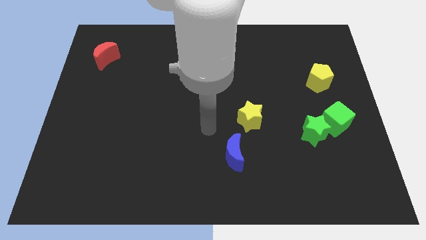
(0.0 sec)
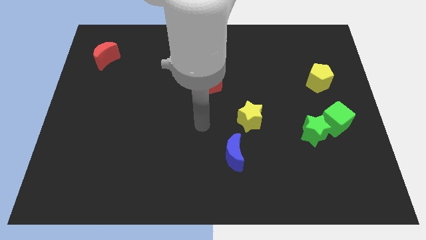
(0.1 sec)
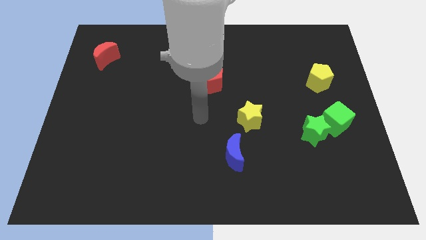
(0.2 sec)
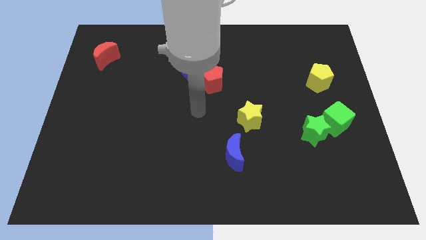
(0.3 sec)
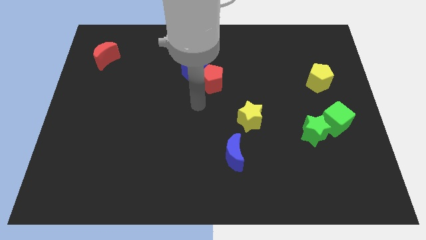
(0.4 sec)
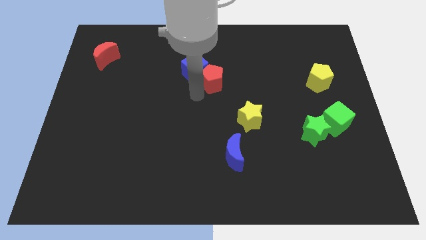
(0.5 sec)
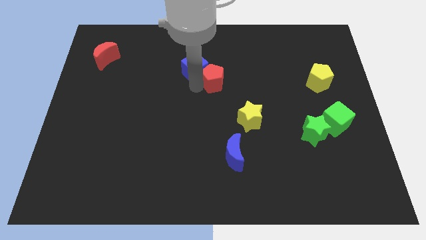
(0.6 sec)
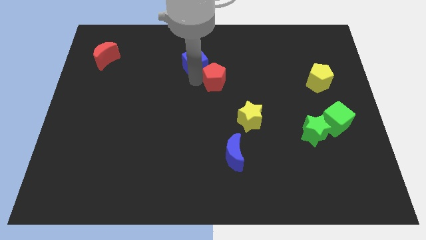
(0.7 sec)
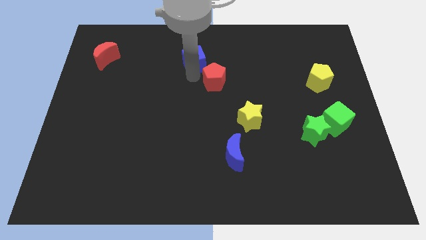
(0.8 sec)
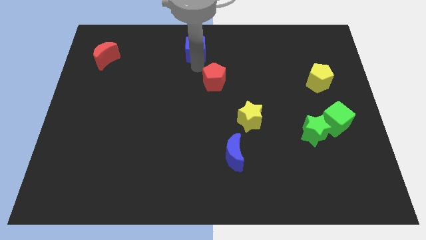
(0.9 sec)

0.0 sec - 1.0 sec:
pull the red pentagon apart from the blue cube

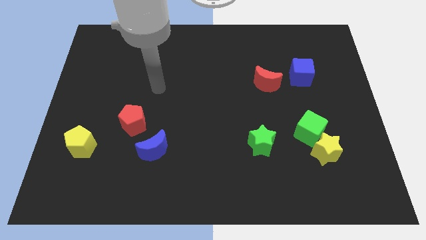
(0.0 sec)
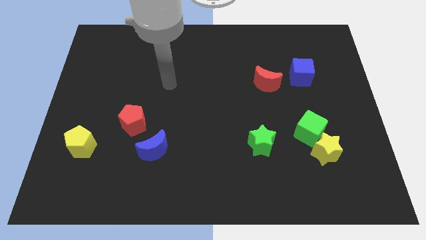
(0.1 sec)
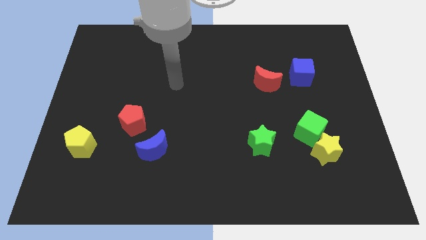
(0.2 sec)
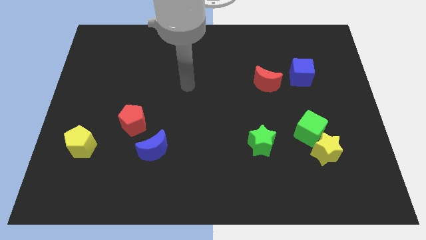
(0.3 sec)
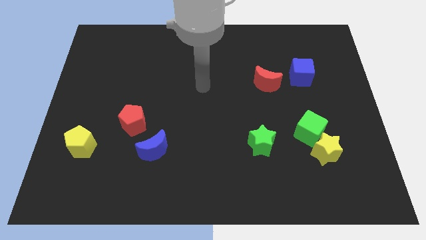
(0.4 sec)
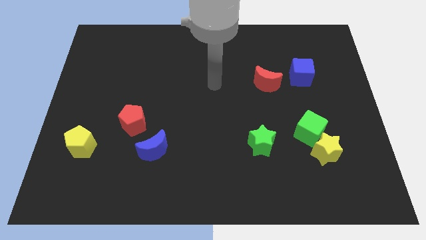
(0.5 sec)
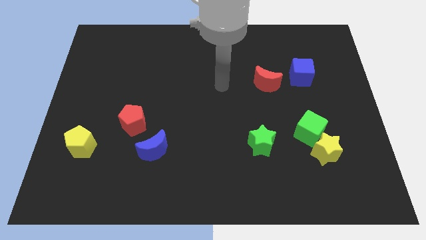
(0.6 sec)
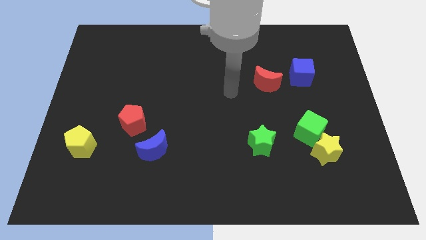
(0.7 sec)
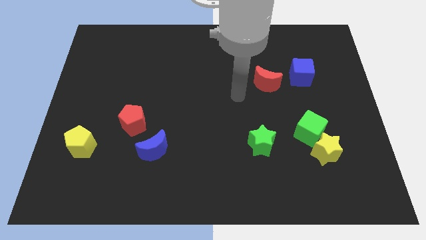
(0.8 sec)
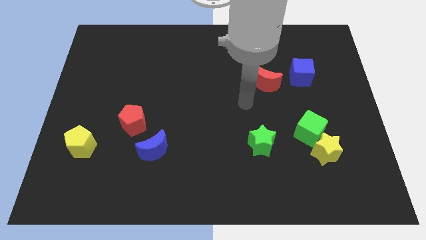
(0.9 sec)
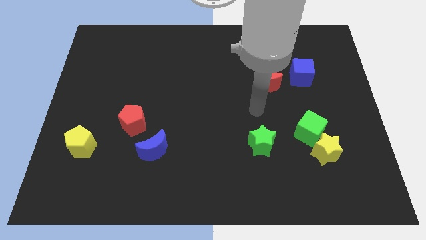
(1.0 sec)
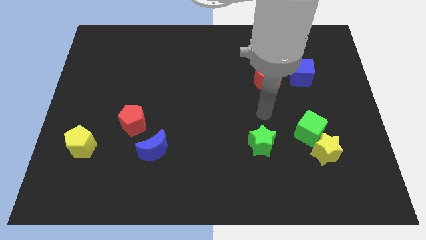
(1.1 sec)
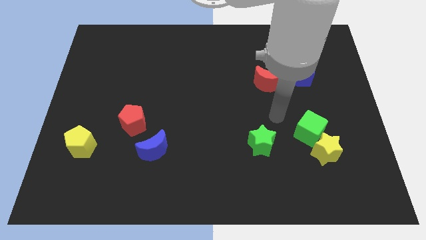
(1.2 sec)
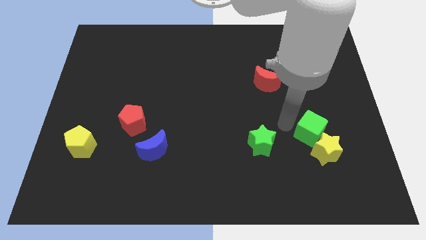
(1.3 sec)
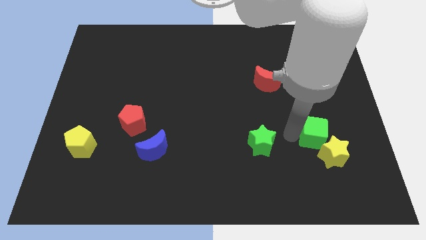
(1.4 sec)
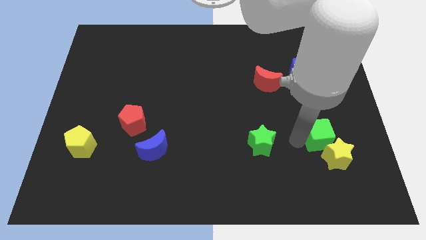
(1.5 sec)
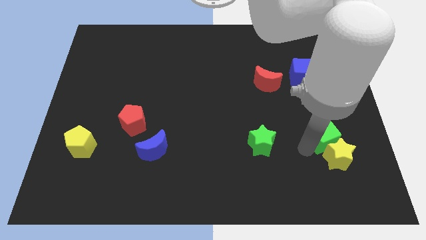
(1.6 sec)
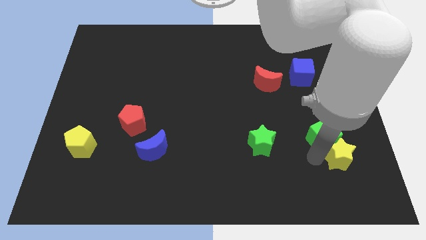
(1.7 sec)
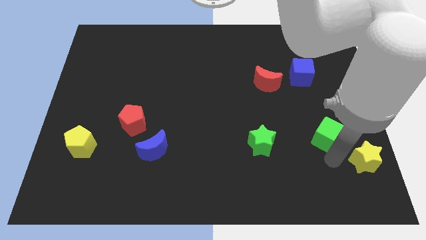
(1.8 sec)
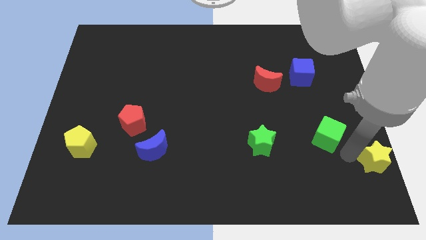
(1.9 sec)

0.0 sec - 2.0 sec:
move the green cube away from the yellow star

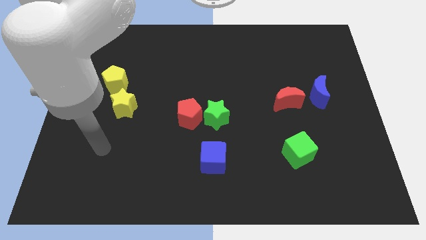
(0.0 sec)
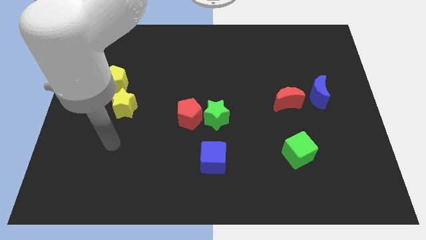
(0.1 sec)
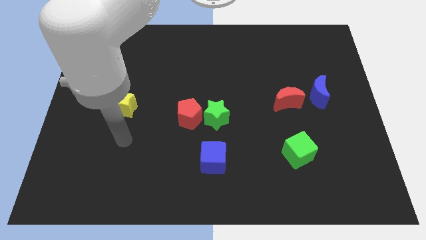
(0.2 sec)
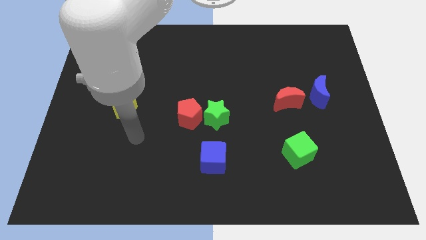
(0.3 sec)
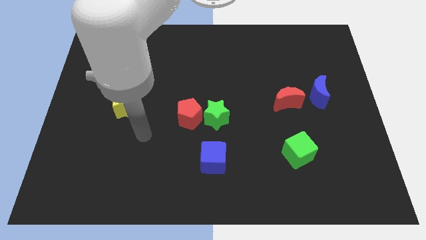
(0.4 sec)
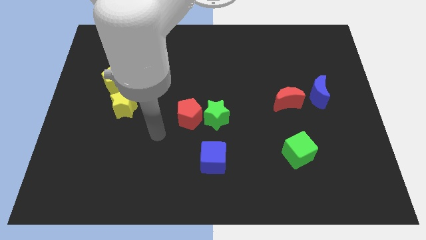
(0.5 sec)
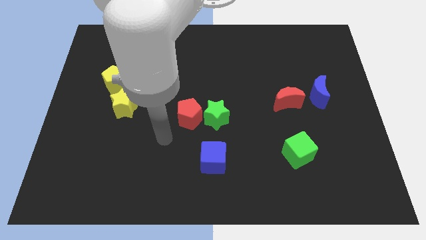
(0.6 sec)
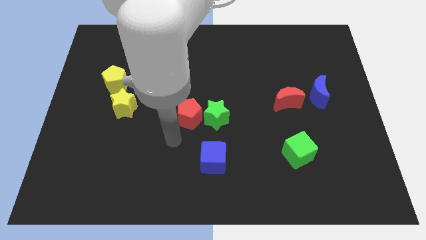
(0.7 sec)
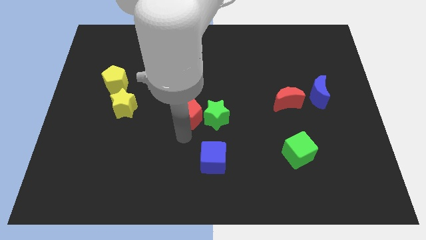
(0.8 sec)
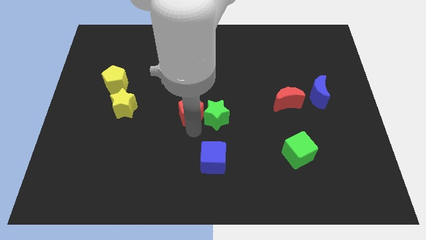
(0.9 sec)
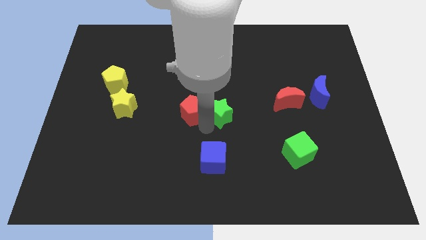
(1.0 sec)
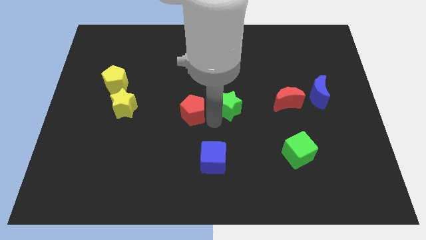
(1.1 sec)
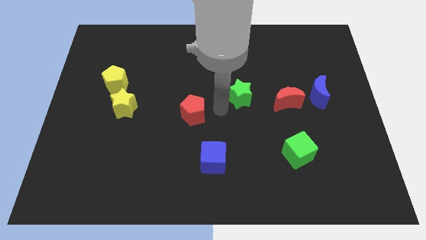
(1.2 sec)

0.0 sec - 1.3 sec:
pull the red pentagon apart from the green star

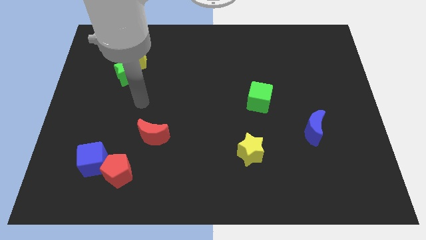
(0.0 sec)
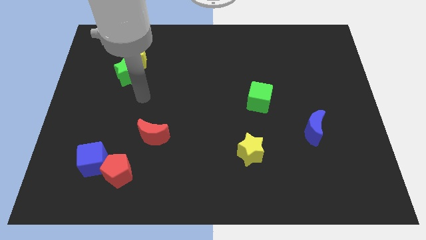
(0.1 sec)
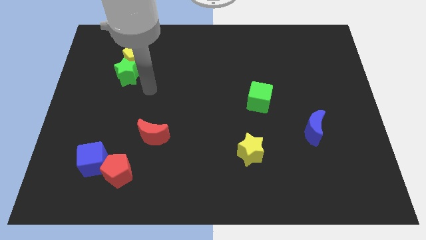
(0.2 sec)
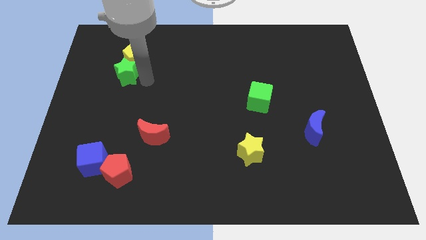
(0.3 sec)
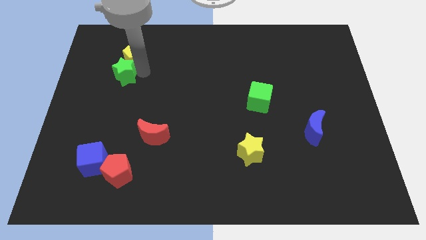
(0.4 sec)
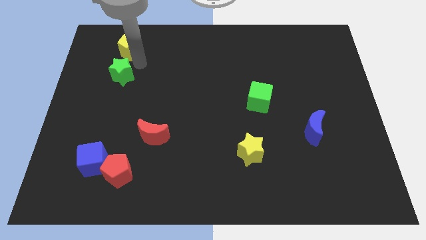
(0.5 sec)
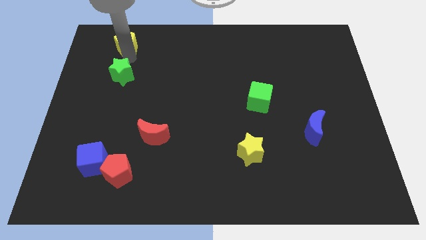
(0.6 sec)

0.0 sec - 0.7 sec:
separate the green star from the yellow pentagon

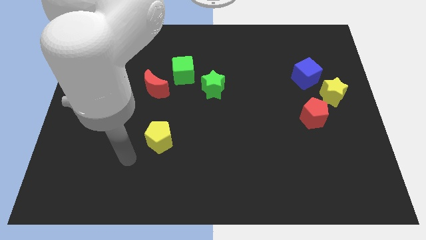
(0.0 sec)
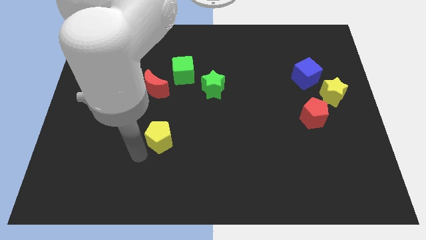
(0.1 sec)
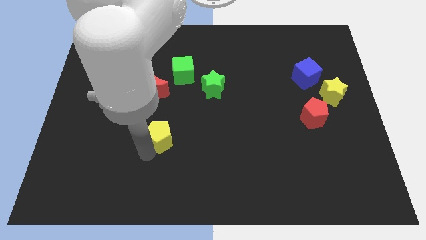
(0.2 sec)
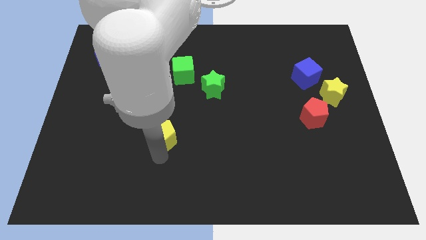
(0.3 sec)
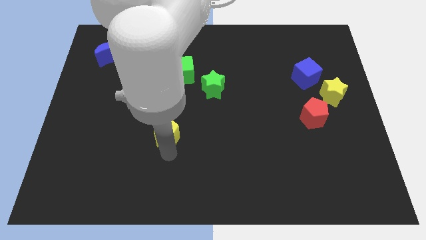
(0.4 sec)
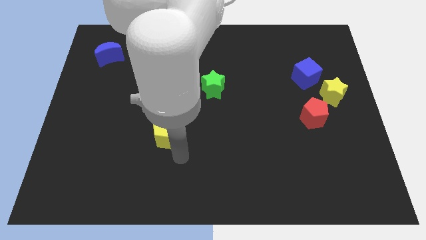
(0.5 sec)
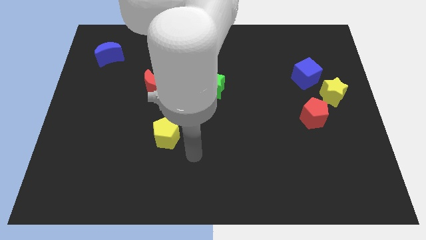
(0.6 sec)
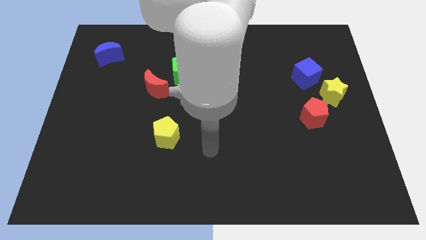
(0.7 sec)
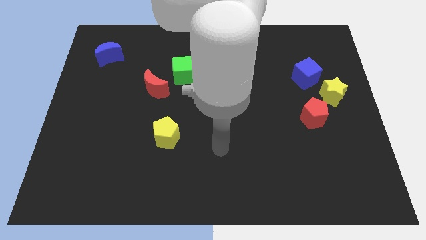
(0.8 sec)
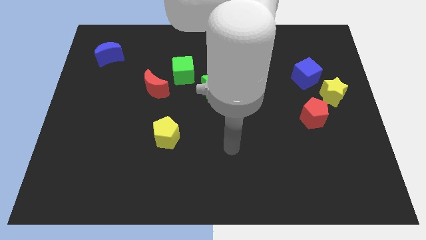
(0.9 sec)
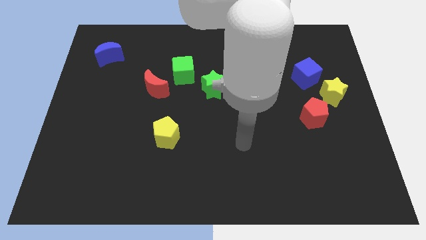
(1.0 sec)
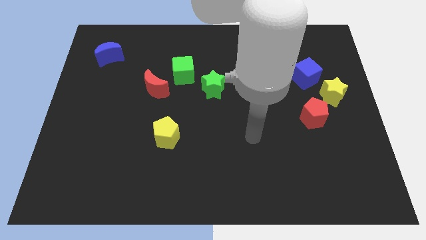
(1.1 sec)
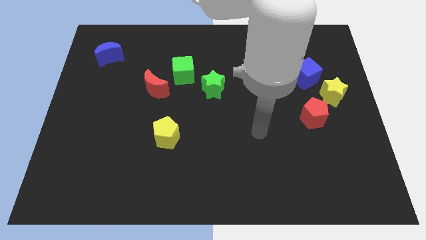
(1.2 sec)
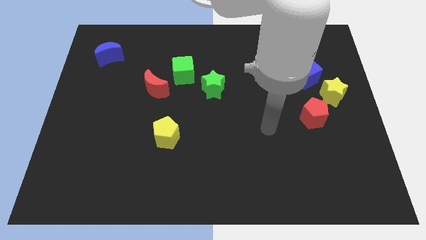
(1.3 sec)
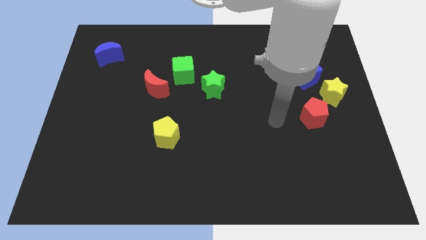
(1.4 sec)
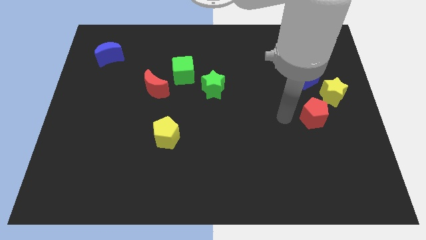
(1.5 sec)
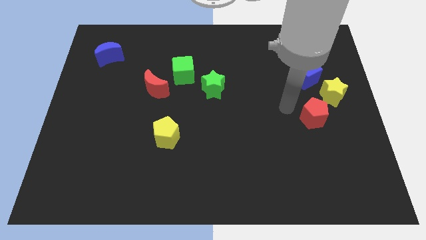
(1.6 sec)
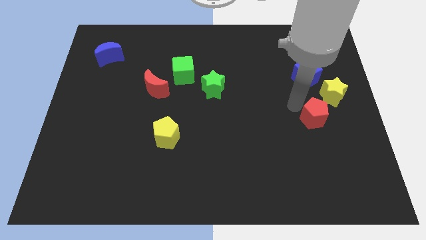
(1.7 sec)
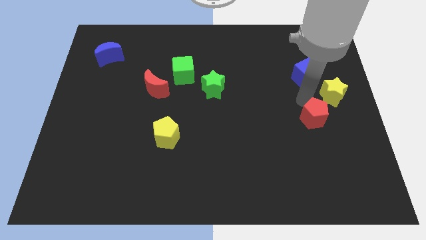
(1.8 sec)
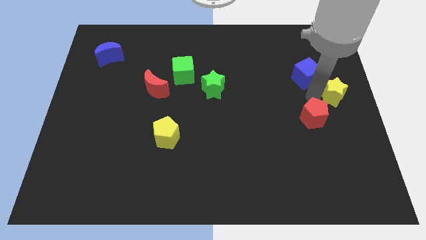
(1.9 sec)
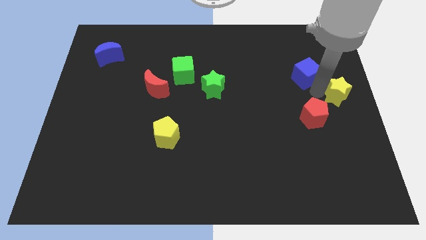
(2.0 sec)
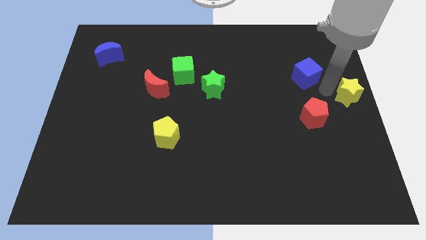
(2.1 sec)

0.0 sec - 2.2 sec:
separate the blue cube from the yellow star

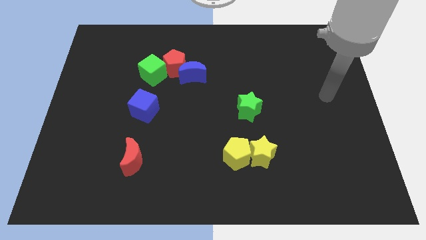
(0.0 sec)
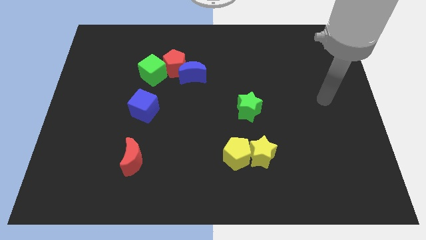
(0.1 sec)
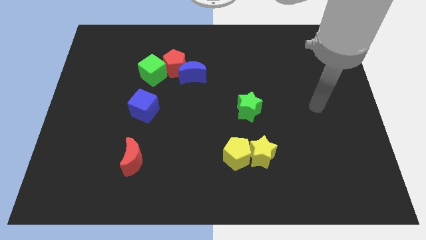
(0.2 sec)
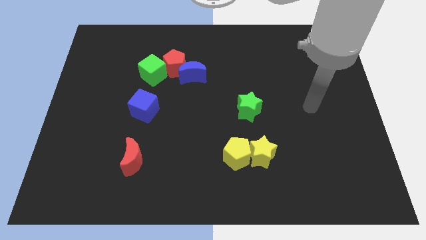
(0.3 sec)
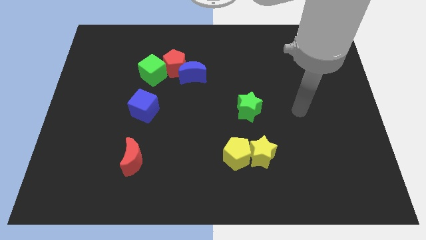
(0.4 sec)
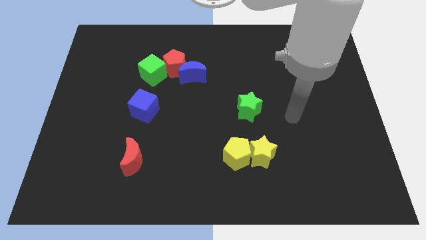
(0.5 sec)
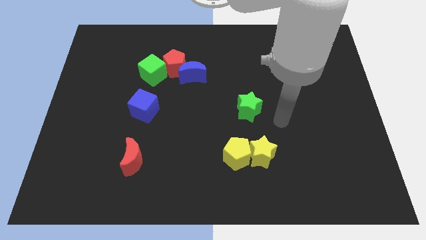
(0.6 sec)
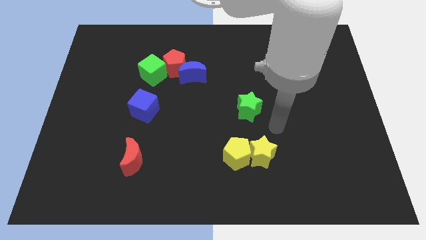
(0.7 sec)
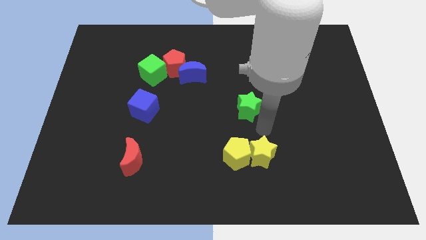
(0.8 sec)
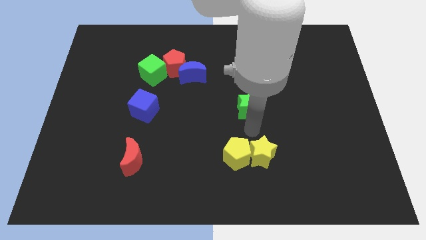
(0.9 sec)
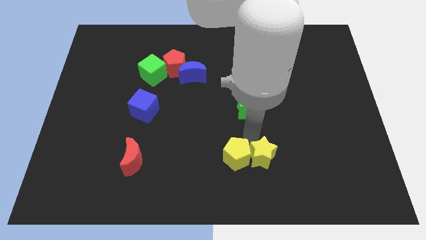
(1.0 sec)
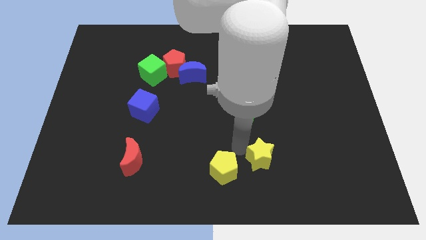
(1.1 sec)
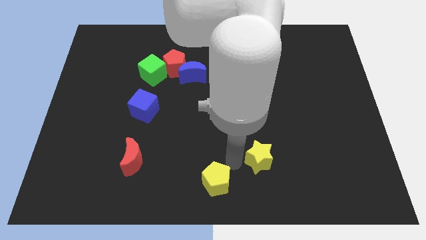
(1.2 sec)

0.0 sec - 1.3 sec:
pull the yellow star apart from the yellow pentagon

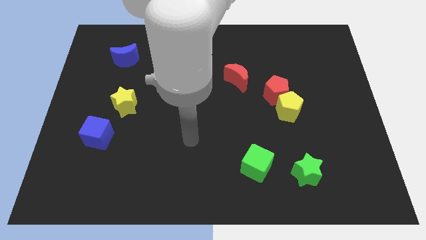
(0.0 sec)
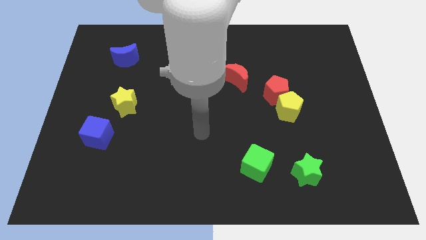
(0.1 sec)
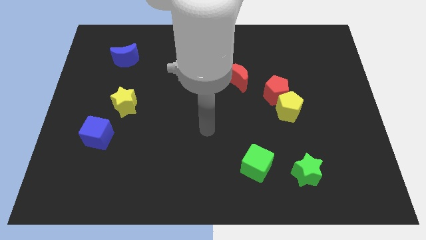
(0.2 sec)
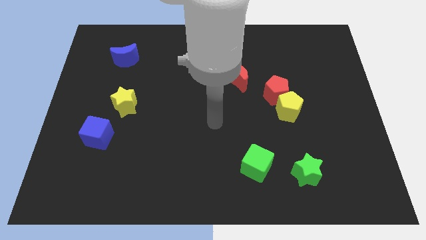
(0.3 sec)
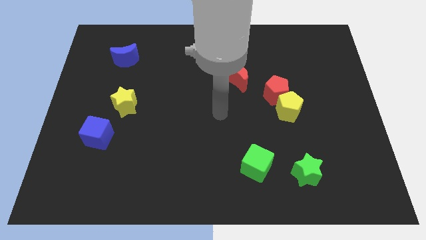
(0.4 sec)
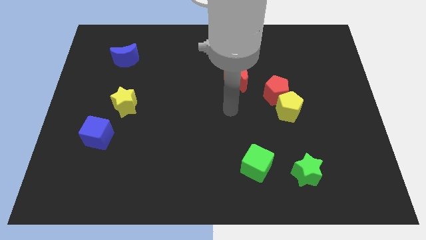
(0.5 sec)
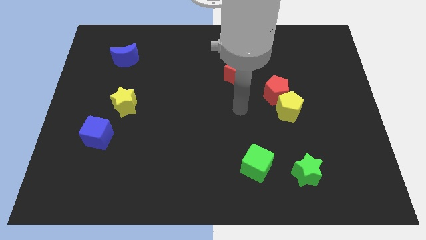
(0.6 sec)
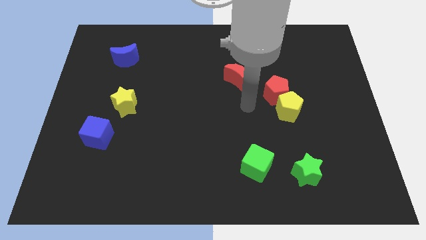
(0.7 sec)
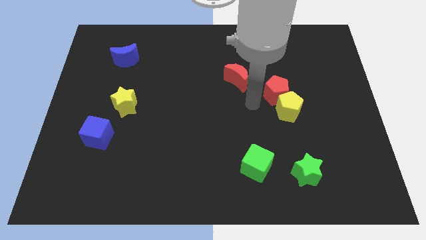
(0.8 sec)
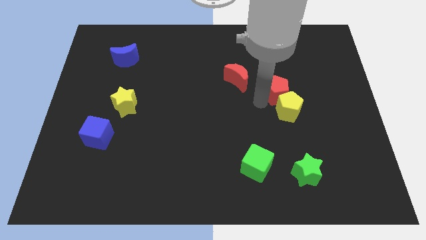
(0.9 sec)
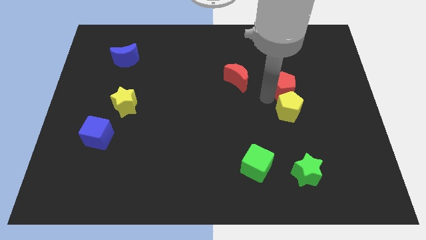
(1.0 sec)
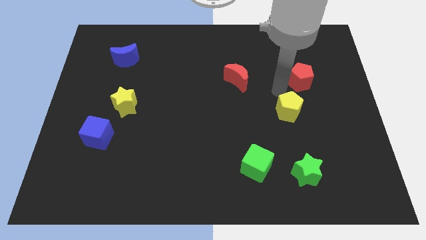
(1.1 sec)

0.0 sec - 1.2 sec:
move the yellow pentagon away from the red pentagon
